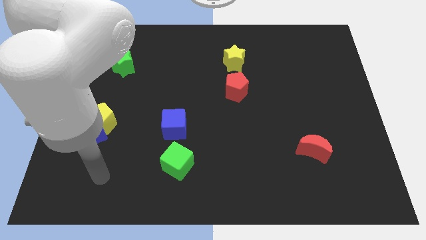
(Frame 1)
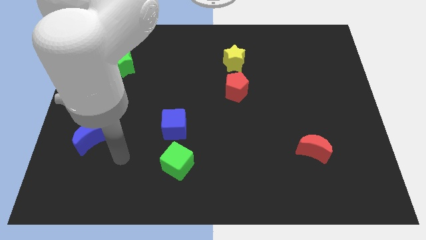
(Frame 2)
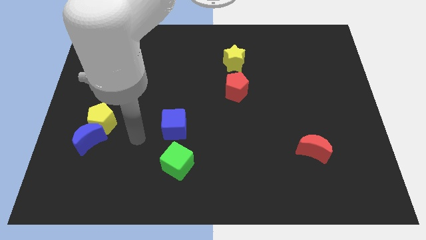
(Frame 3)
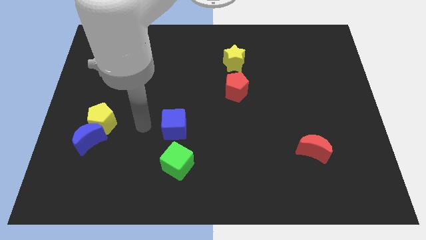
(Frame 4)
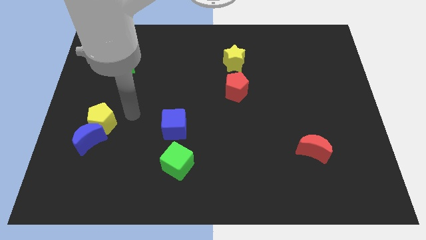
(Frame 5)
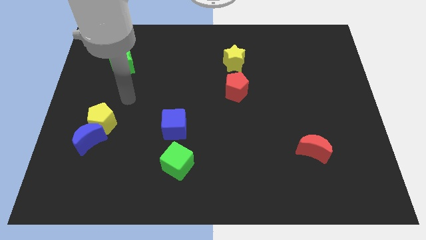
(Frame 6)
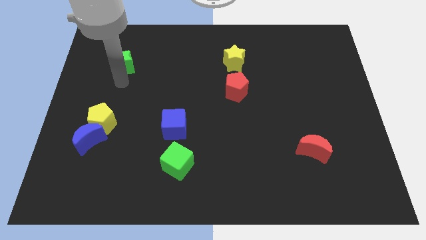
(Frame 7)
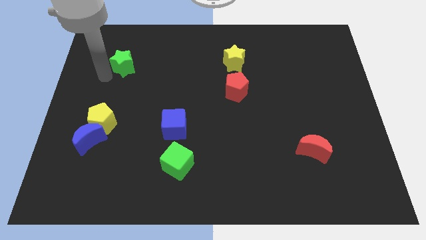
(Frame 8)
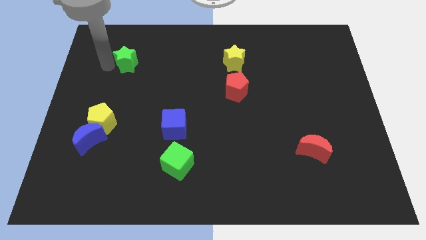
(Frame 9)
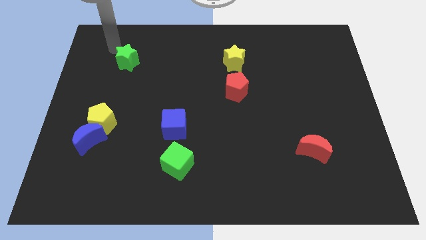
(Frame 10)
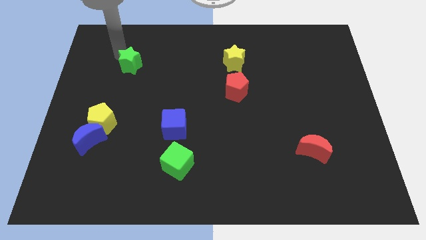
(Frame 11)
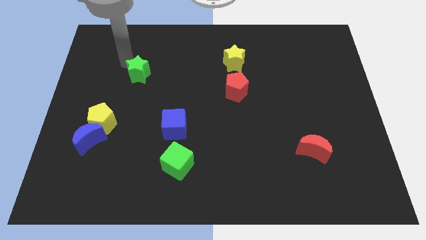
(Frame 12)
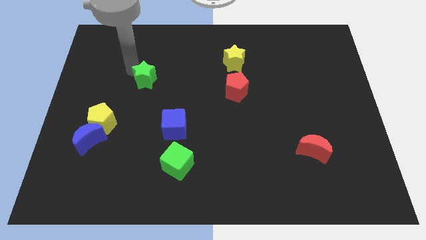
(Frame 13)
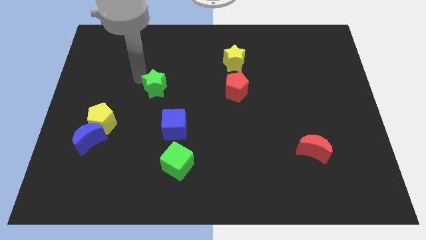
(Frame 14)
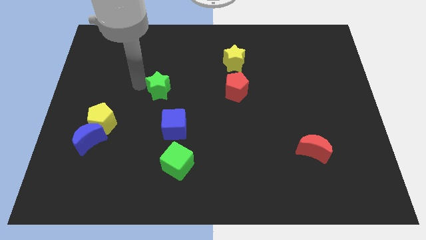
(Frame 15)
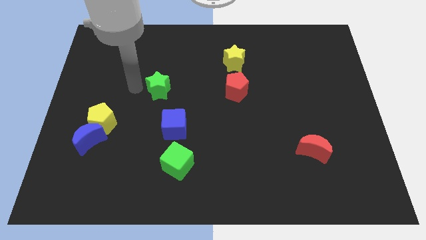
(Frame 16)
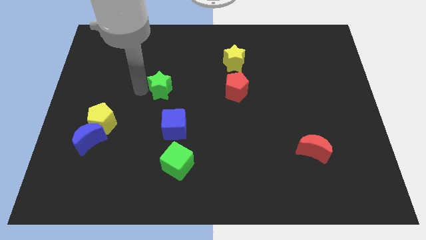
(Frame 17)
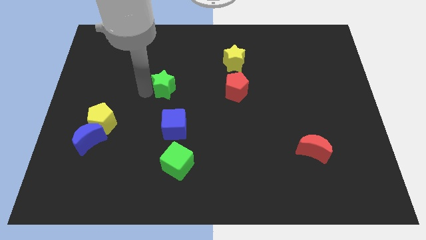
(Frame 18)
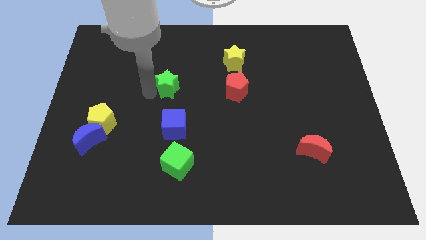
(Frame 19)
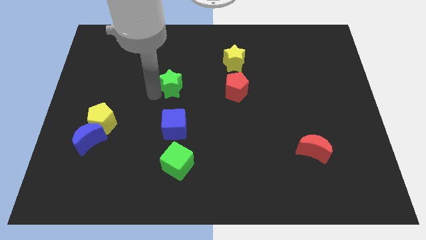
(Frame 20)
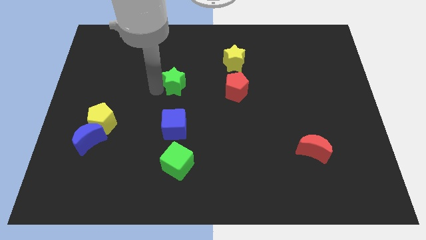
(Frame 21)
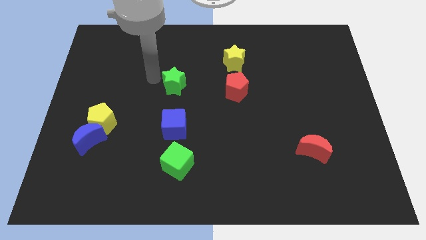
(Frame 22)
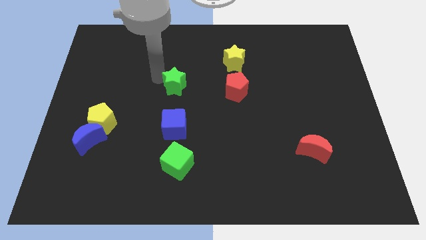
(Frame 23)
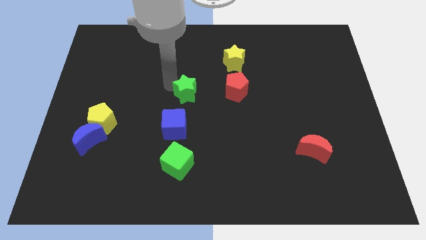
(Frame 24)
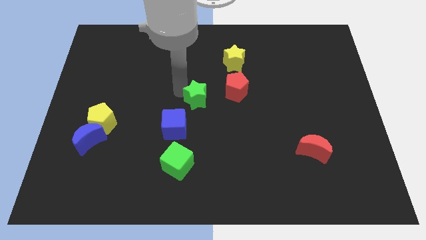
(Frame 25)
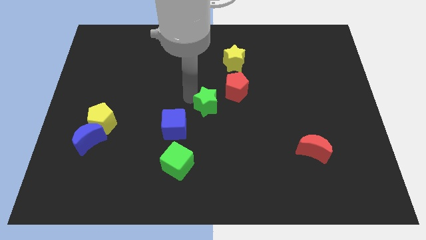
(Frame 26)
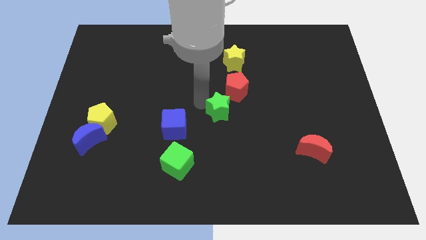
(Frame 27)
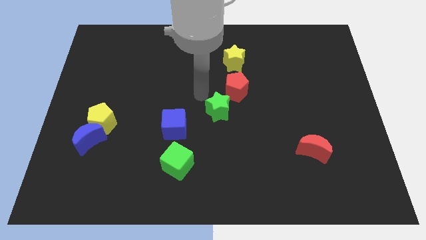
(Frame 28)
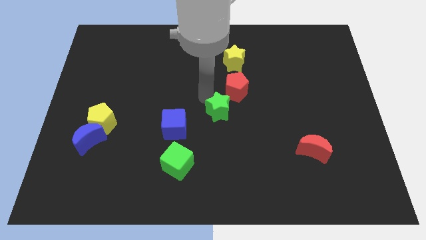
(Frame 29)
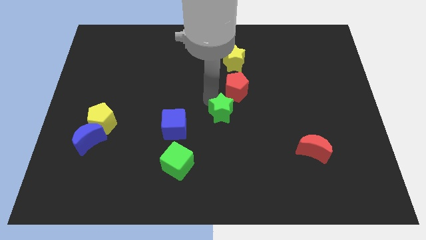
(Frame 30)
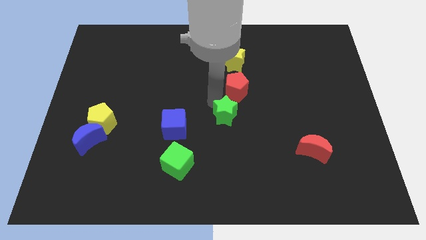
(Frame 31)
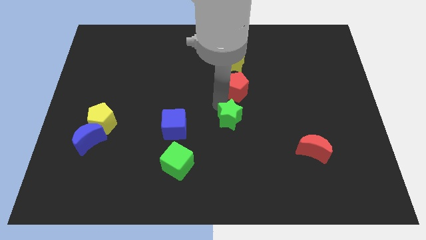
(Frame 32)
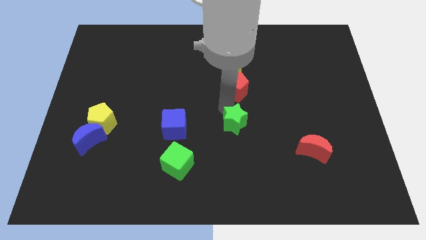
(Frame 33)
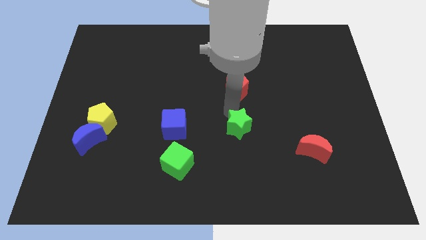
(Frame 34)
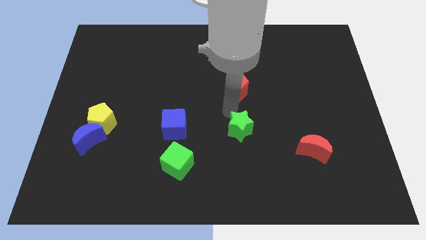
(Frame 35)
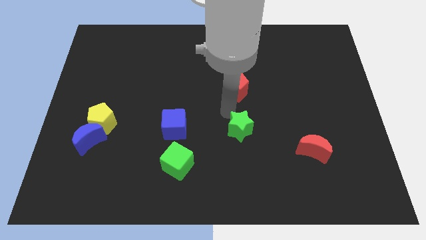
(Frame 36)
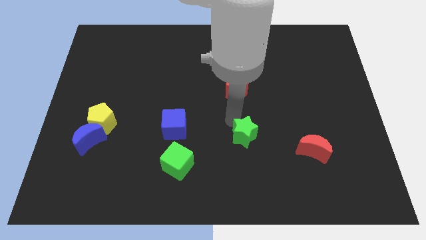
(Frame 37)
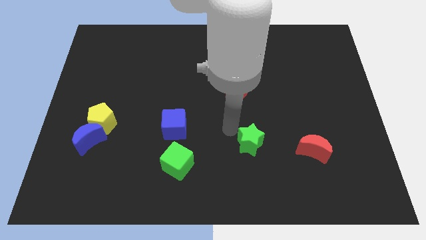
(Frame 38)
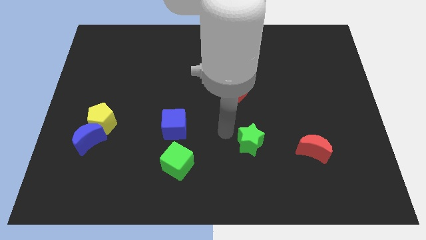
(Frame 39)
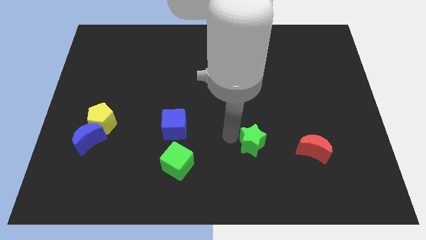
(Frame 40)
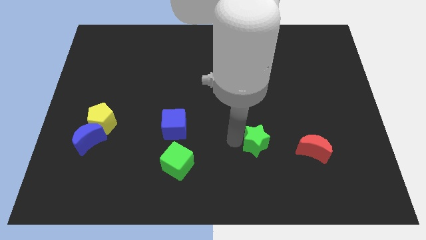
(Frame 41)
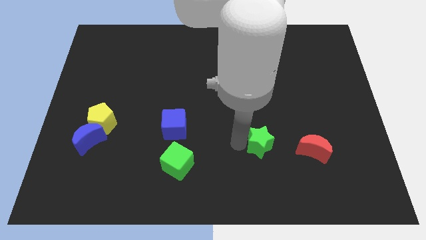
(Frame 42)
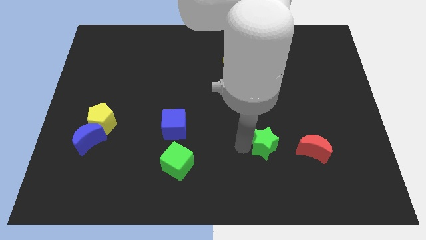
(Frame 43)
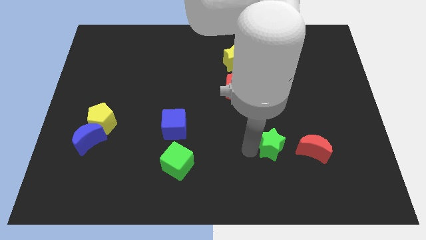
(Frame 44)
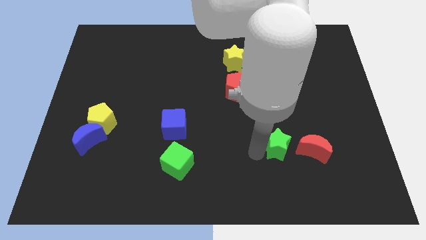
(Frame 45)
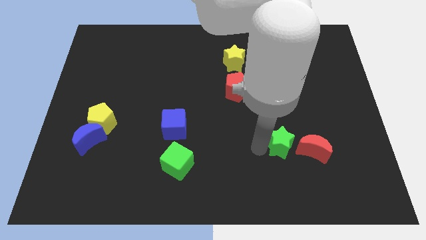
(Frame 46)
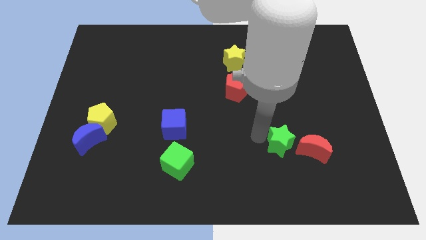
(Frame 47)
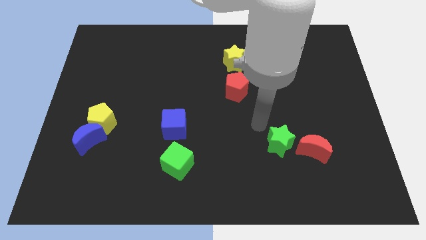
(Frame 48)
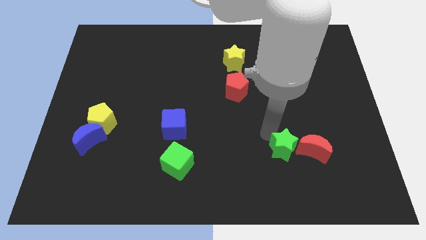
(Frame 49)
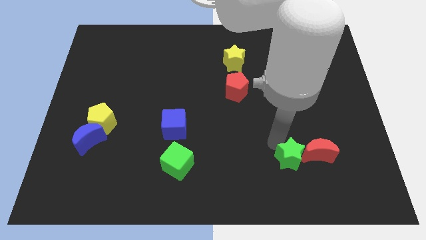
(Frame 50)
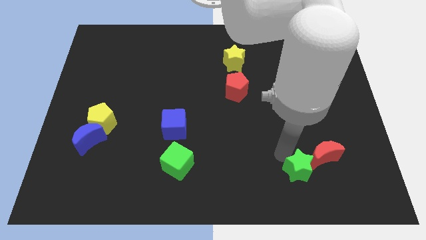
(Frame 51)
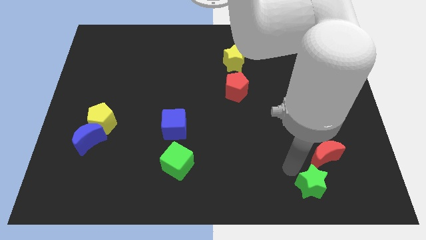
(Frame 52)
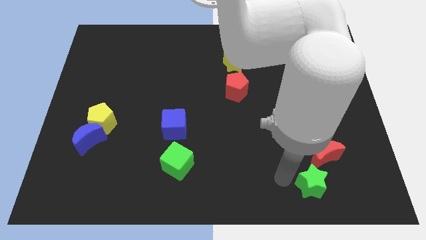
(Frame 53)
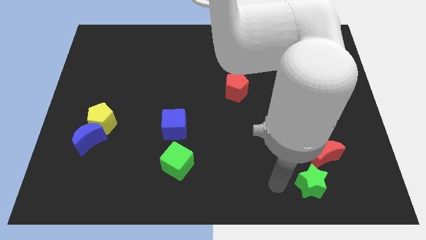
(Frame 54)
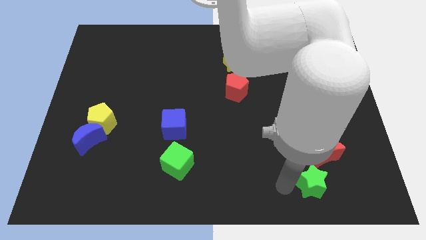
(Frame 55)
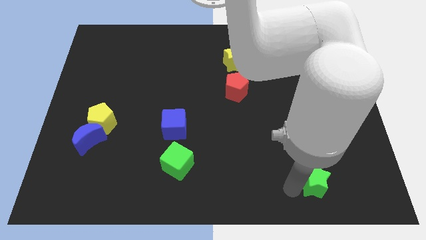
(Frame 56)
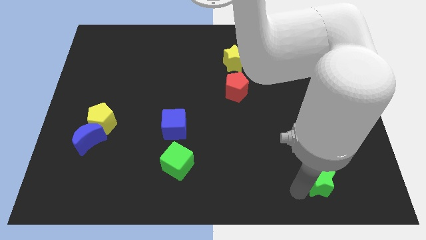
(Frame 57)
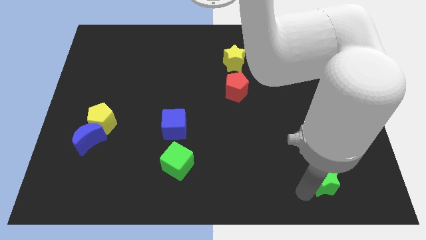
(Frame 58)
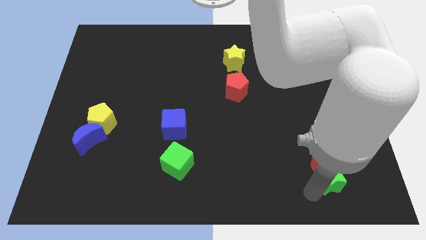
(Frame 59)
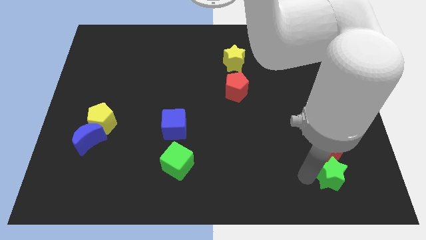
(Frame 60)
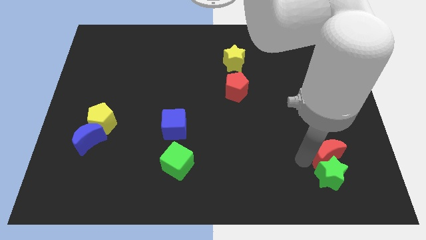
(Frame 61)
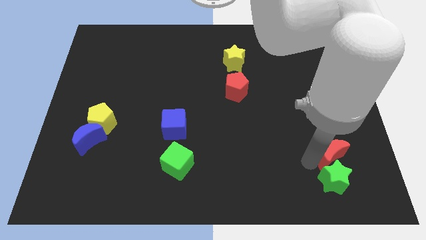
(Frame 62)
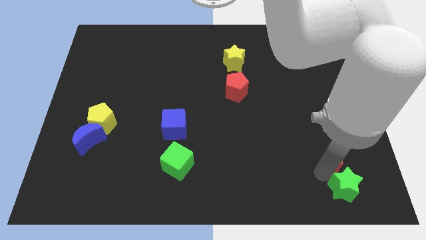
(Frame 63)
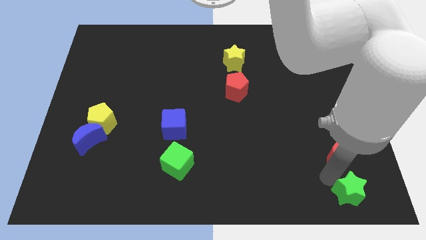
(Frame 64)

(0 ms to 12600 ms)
put the green star to the lower right corner
